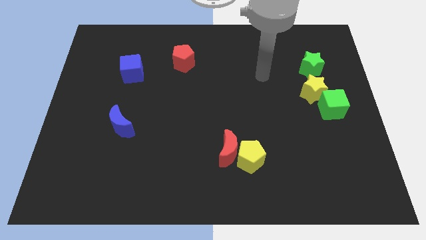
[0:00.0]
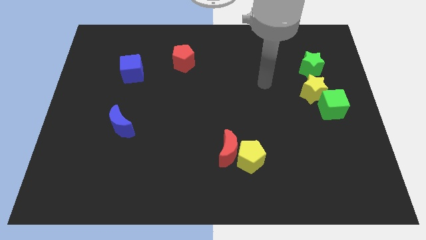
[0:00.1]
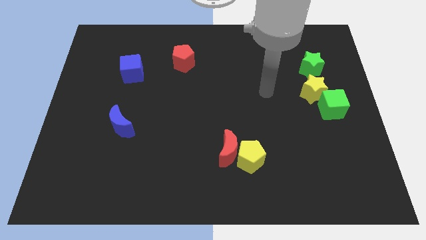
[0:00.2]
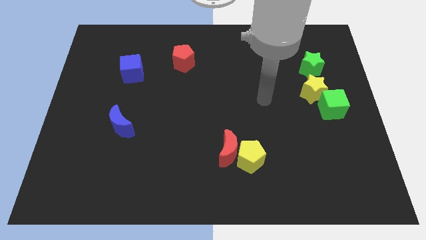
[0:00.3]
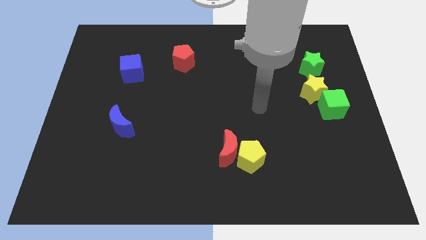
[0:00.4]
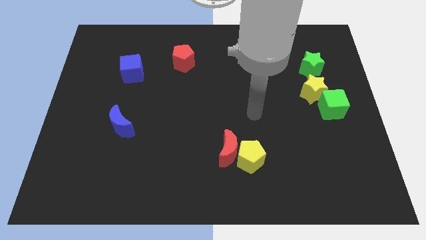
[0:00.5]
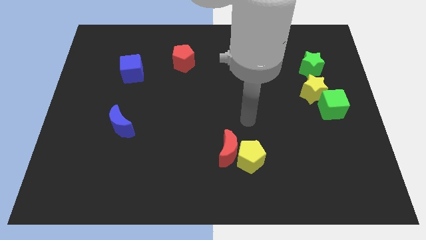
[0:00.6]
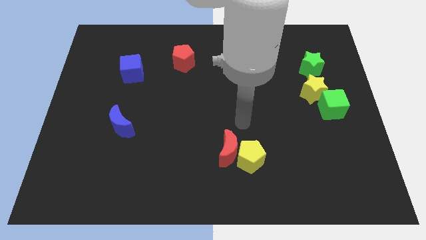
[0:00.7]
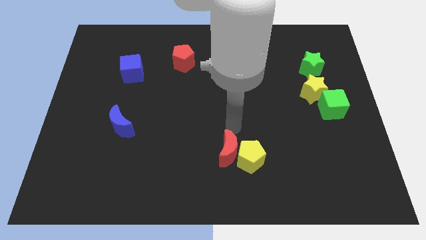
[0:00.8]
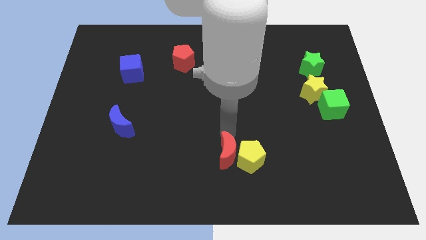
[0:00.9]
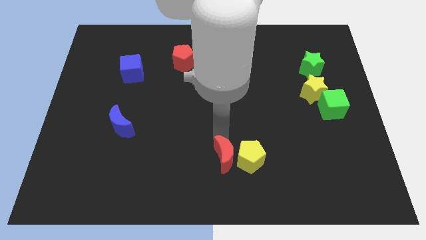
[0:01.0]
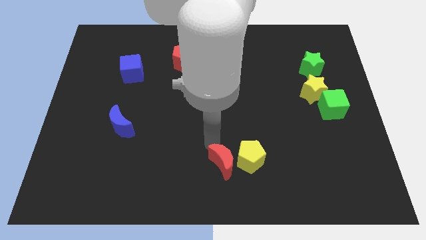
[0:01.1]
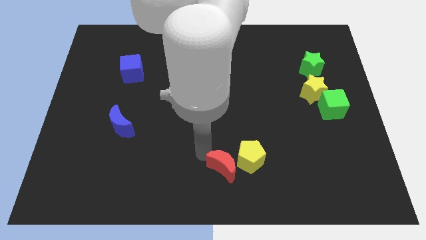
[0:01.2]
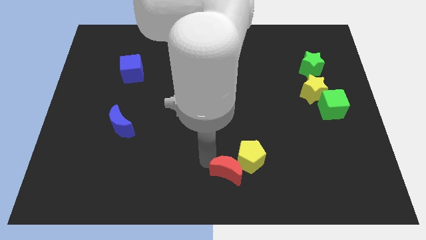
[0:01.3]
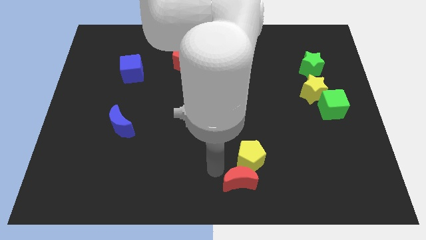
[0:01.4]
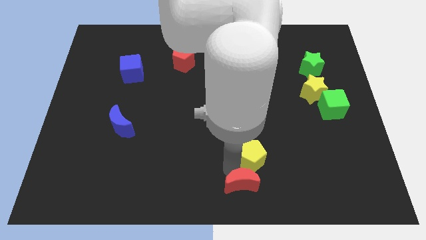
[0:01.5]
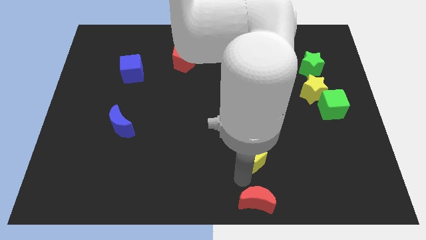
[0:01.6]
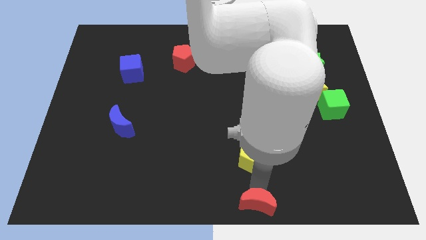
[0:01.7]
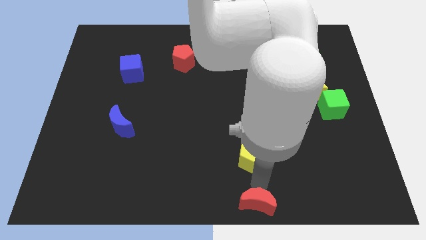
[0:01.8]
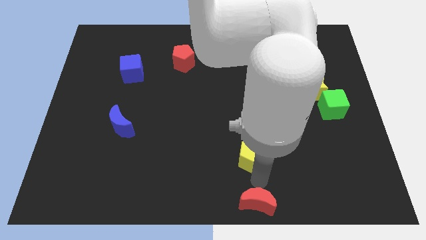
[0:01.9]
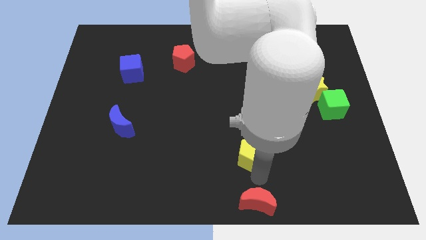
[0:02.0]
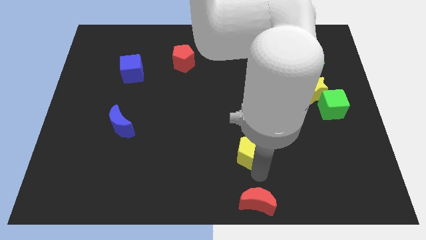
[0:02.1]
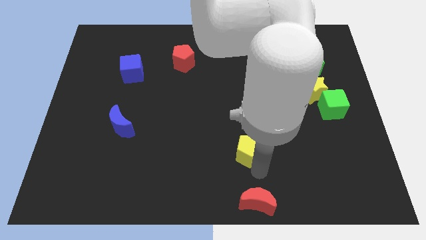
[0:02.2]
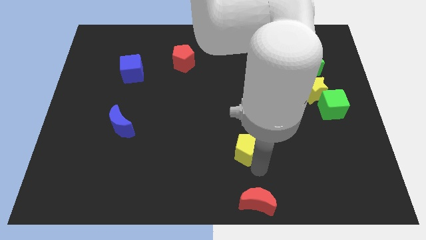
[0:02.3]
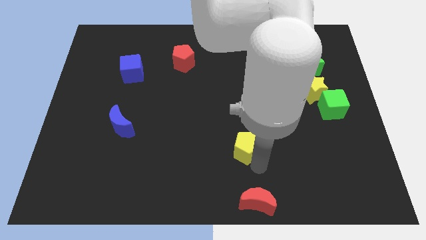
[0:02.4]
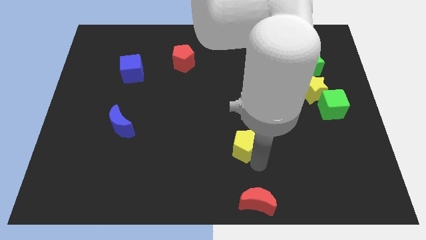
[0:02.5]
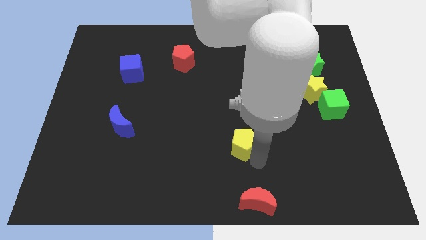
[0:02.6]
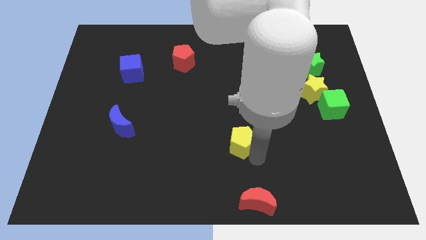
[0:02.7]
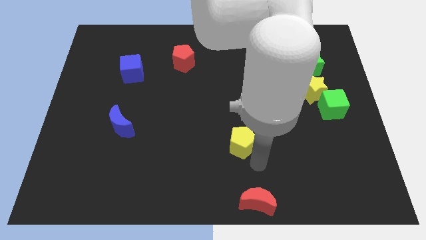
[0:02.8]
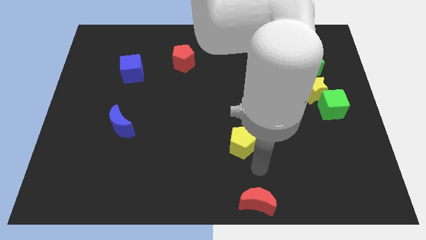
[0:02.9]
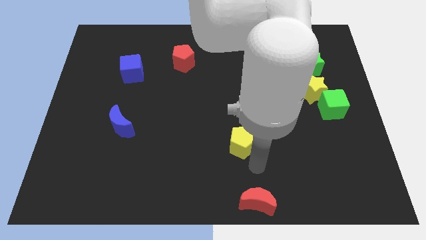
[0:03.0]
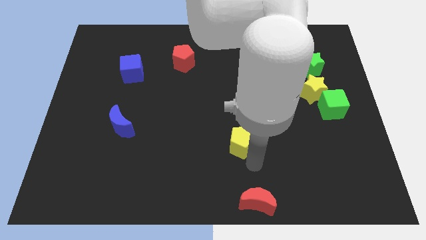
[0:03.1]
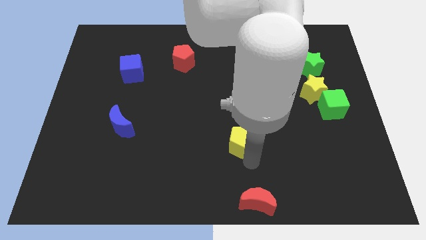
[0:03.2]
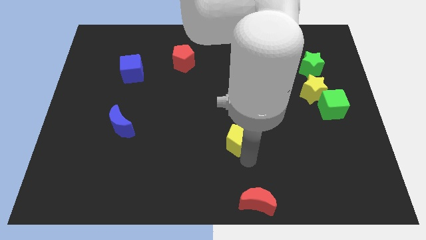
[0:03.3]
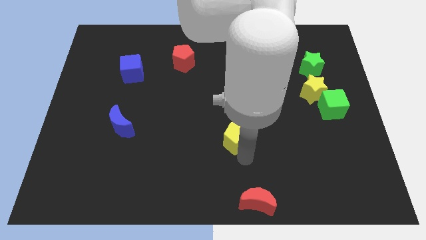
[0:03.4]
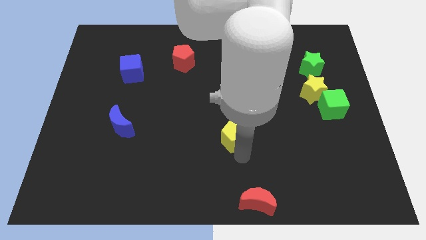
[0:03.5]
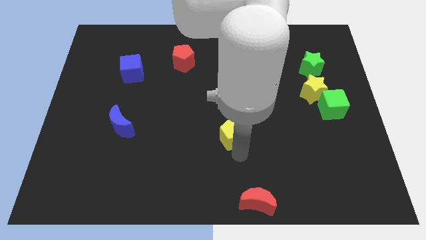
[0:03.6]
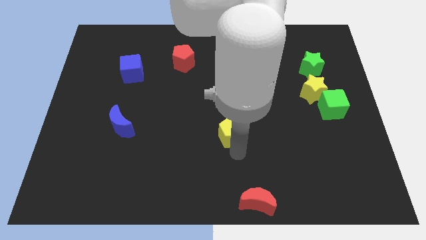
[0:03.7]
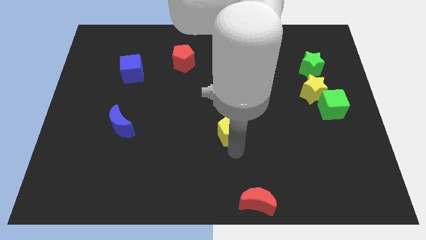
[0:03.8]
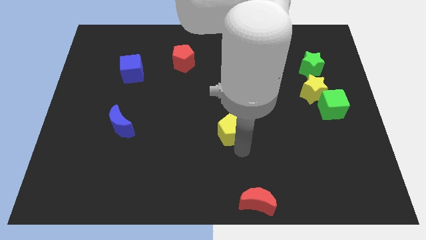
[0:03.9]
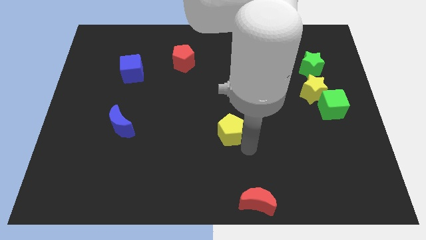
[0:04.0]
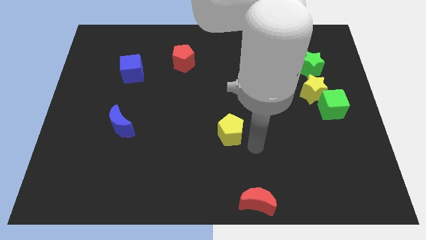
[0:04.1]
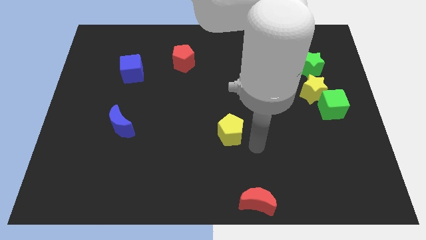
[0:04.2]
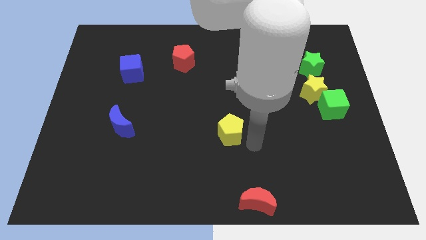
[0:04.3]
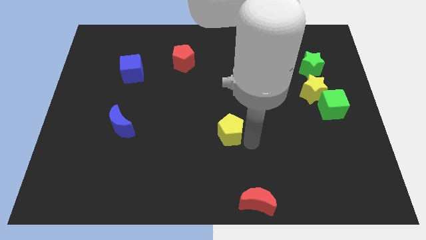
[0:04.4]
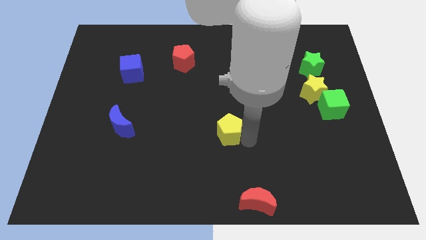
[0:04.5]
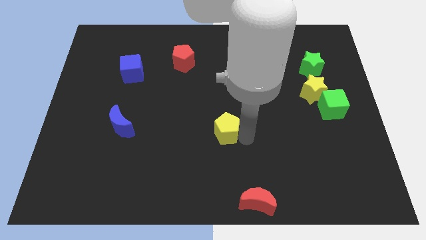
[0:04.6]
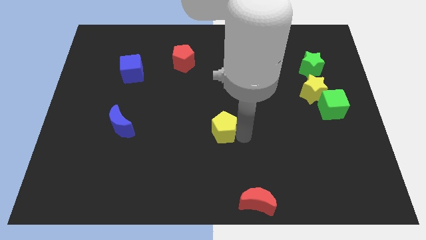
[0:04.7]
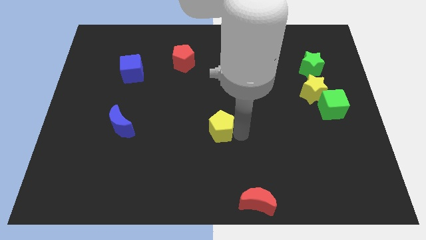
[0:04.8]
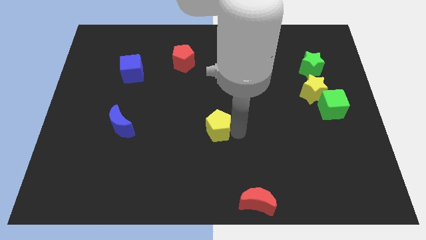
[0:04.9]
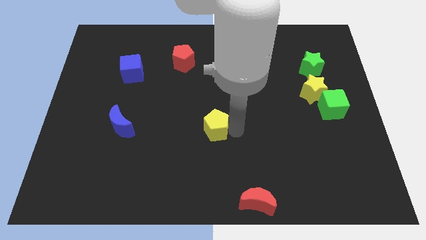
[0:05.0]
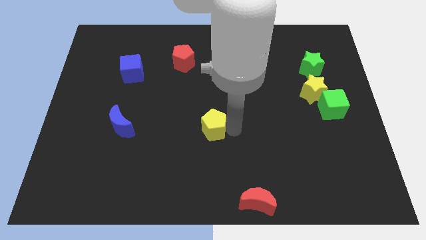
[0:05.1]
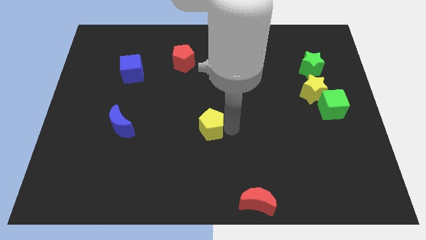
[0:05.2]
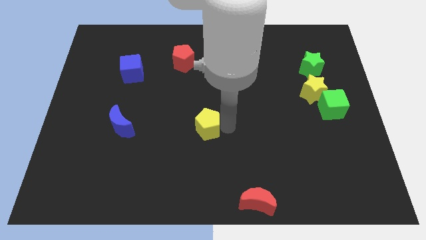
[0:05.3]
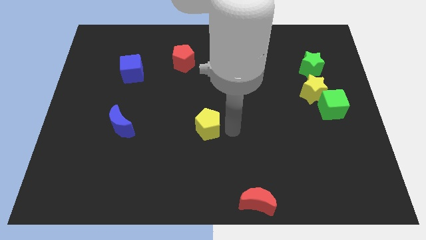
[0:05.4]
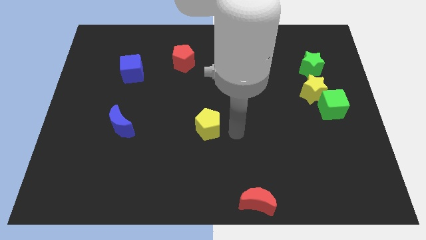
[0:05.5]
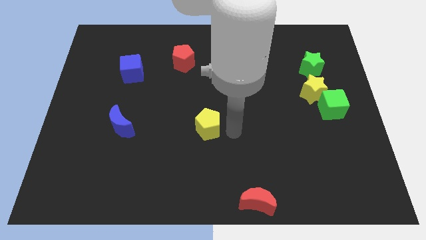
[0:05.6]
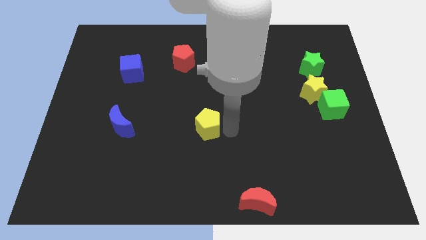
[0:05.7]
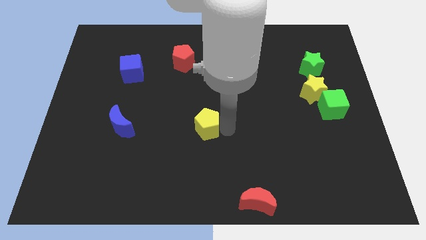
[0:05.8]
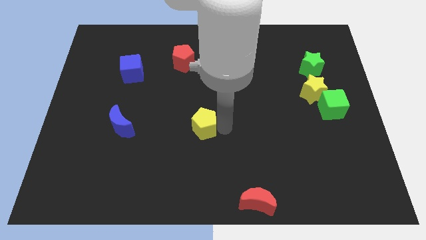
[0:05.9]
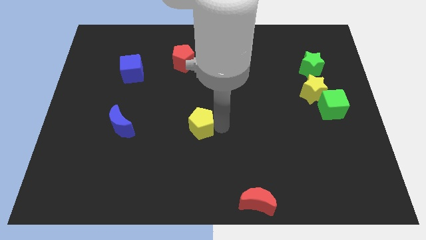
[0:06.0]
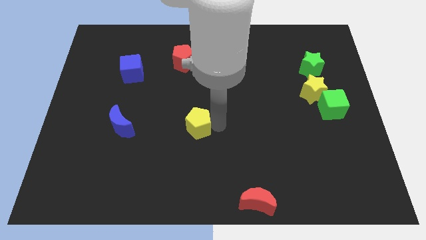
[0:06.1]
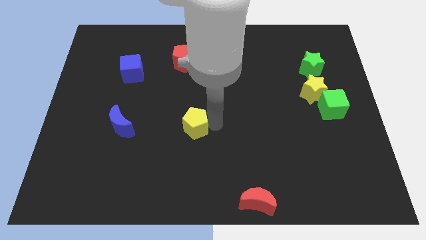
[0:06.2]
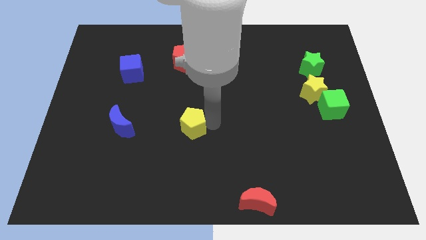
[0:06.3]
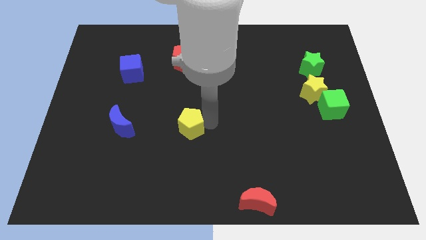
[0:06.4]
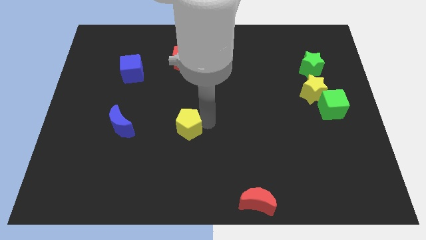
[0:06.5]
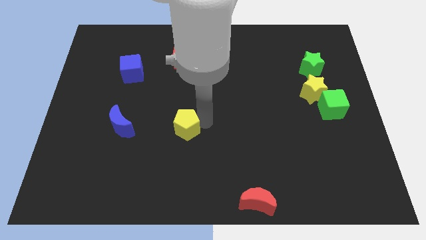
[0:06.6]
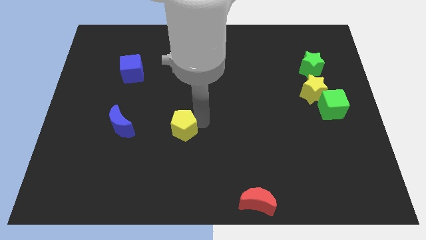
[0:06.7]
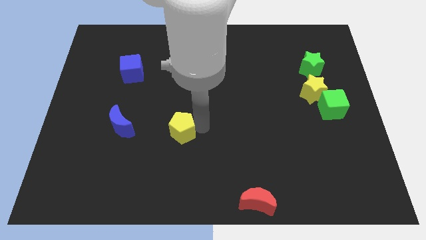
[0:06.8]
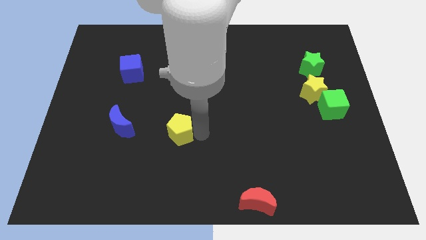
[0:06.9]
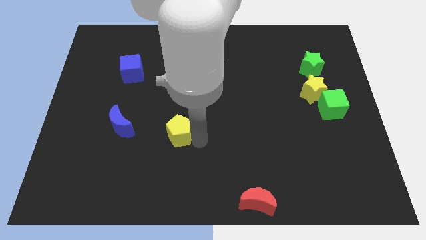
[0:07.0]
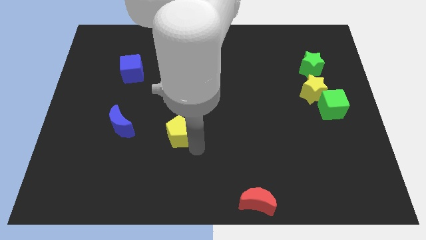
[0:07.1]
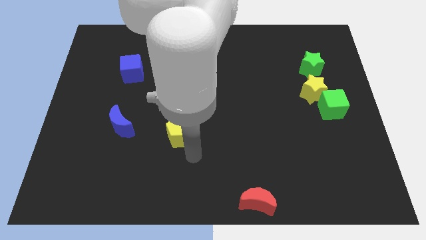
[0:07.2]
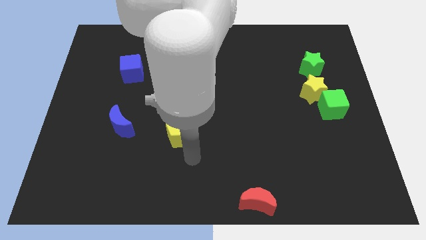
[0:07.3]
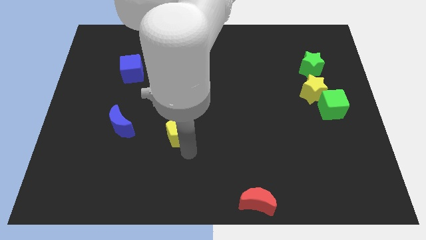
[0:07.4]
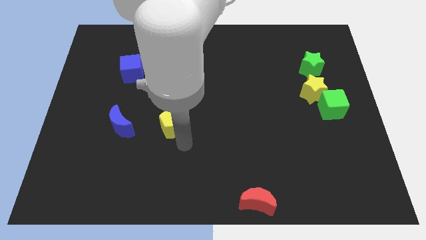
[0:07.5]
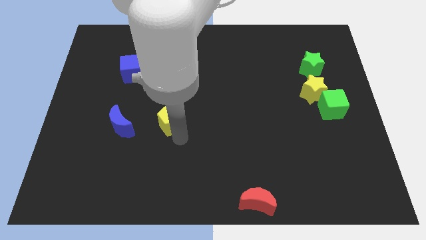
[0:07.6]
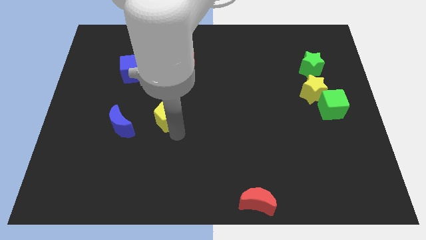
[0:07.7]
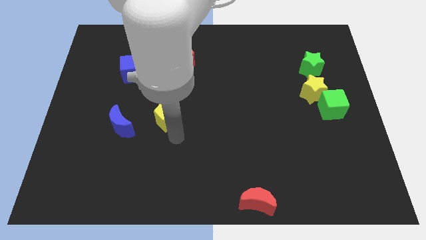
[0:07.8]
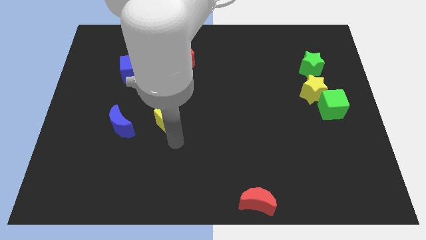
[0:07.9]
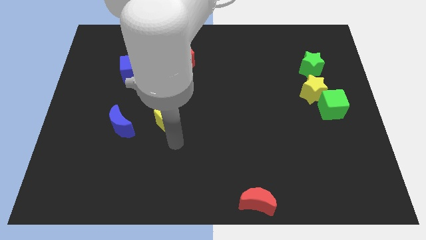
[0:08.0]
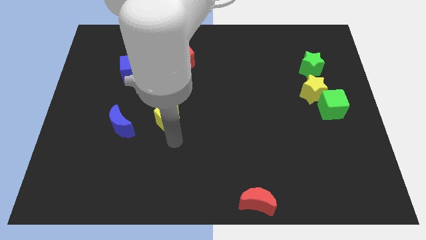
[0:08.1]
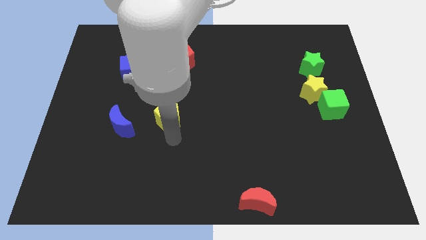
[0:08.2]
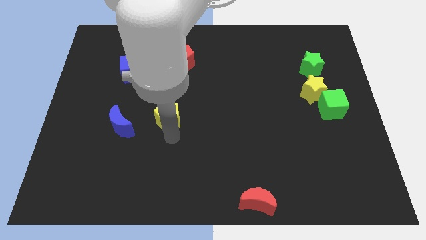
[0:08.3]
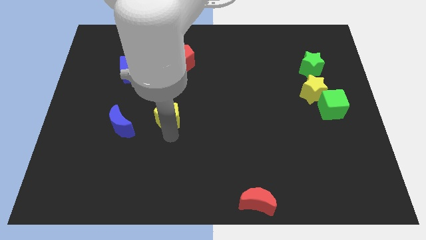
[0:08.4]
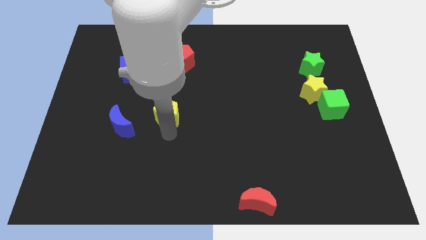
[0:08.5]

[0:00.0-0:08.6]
slide the yellow pentagon diagonally upwards and left
